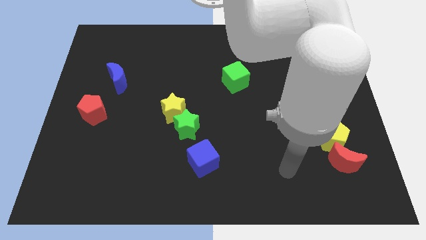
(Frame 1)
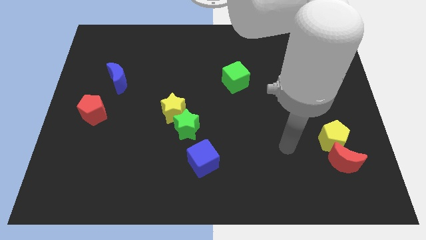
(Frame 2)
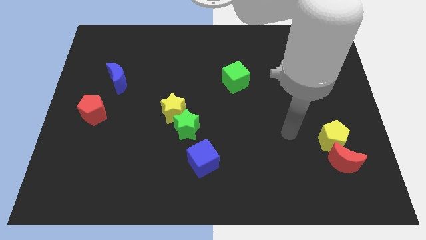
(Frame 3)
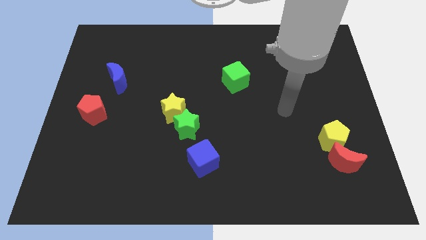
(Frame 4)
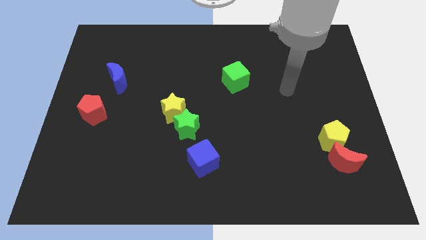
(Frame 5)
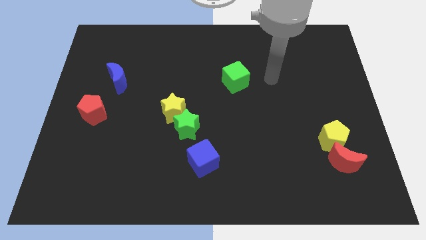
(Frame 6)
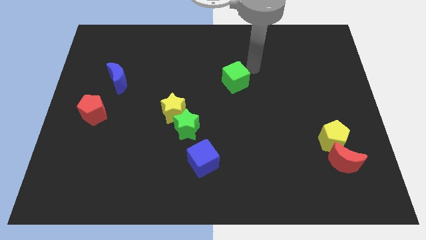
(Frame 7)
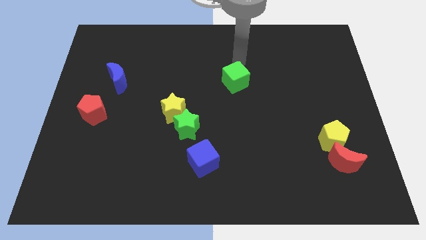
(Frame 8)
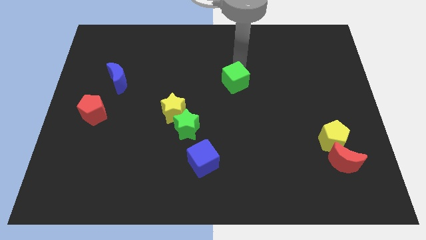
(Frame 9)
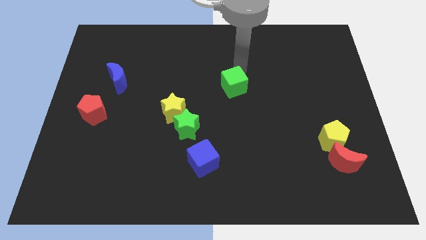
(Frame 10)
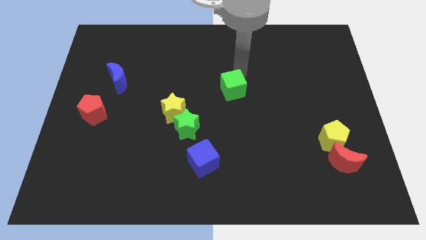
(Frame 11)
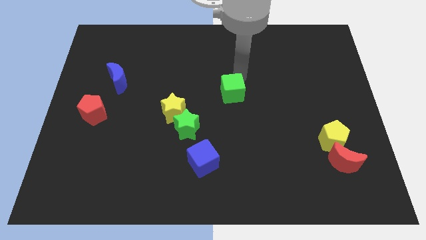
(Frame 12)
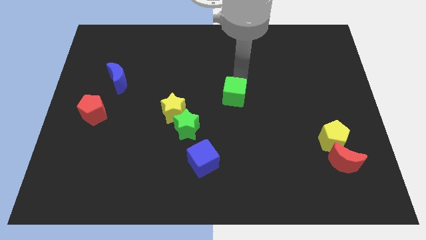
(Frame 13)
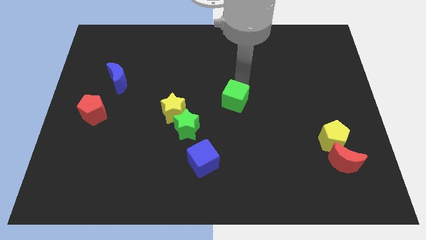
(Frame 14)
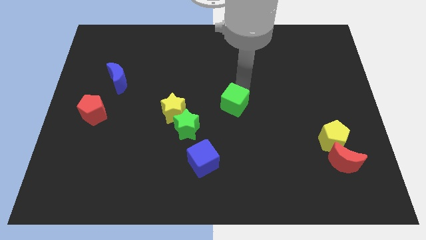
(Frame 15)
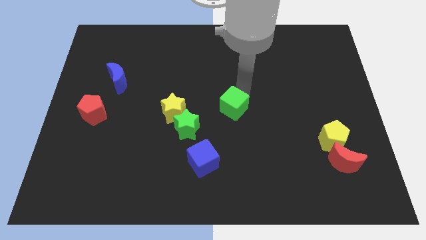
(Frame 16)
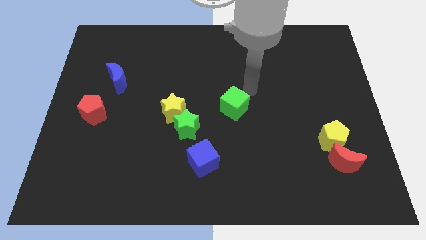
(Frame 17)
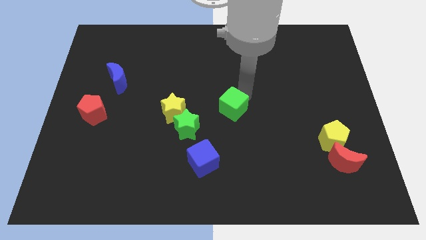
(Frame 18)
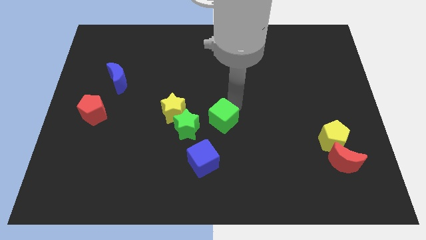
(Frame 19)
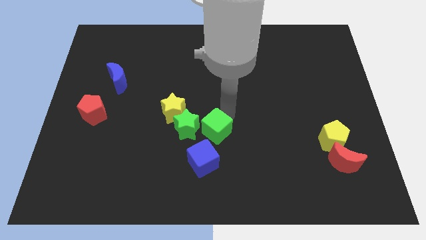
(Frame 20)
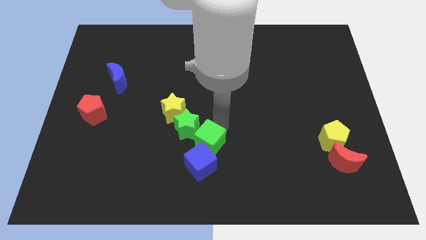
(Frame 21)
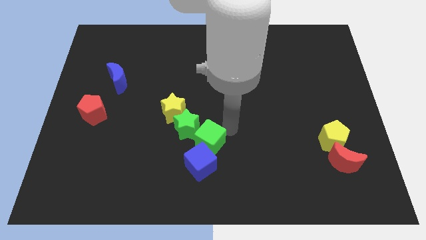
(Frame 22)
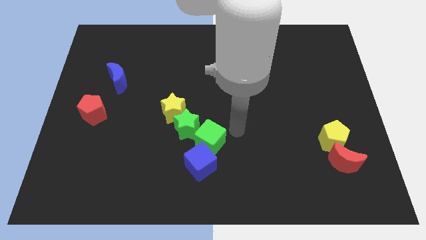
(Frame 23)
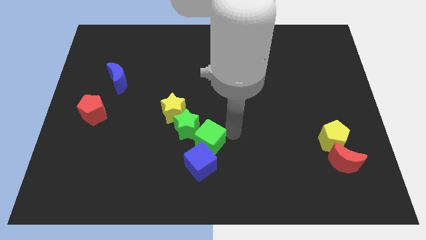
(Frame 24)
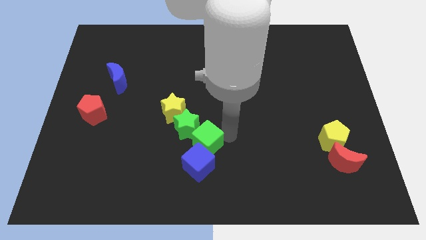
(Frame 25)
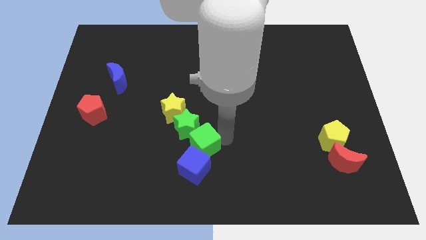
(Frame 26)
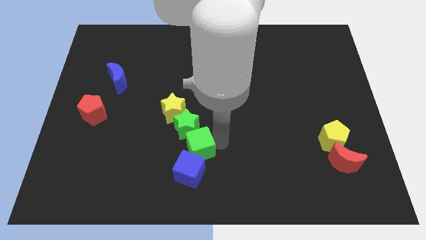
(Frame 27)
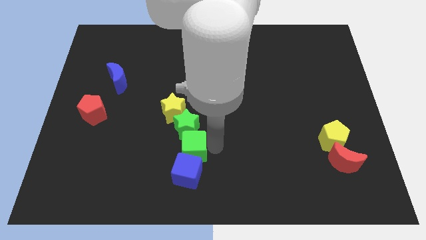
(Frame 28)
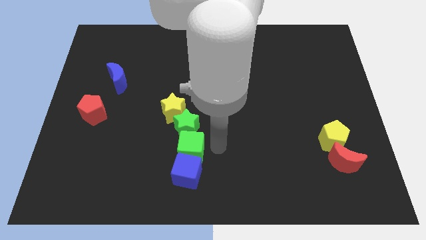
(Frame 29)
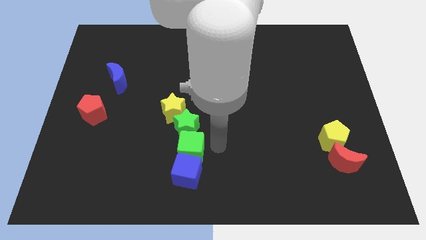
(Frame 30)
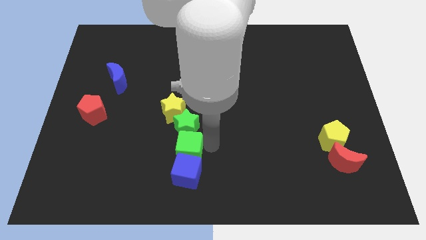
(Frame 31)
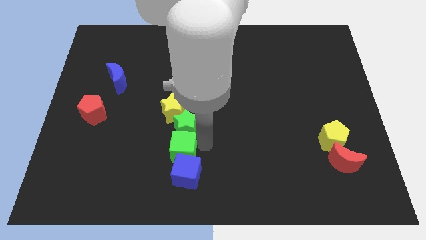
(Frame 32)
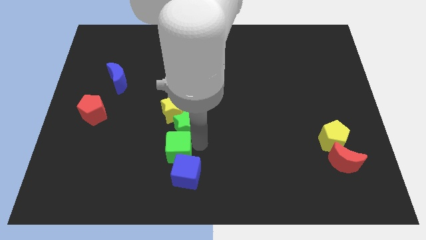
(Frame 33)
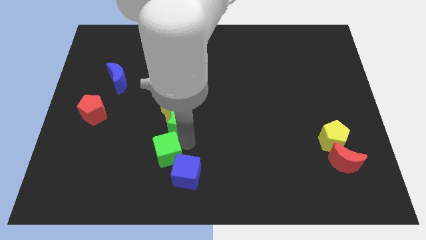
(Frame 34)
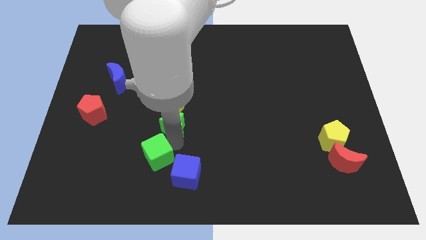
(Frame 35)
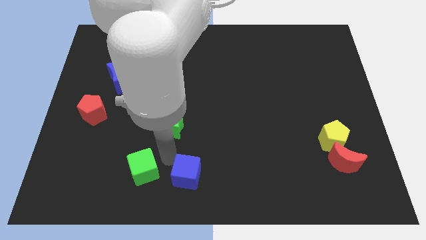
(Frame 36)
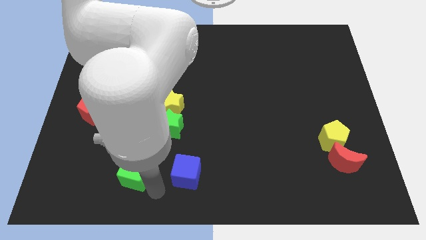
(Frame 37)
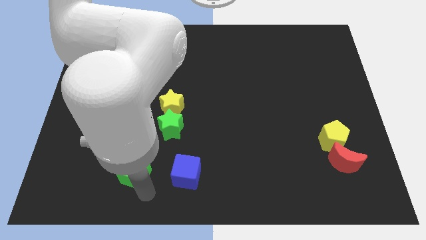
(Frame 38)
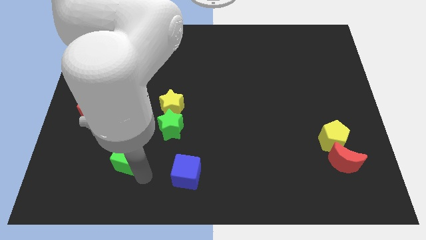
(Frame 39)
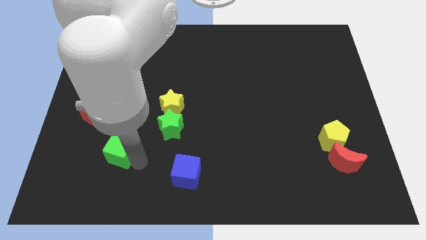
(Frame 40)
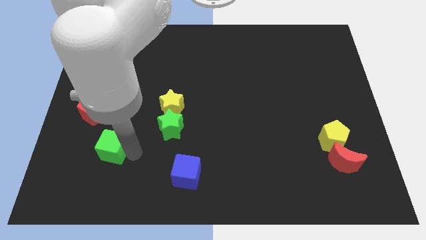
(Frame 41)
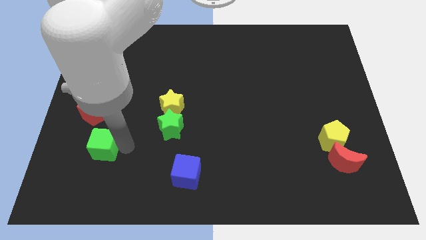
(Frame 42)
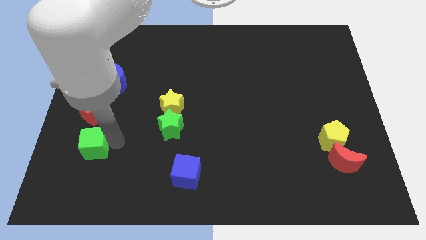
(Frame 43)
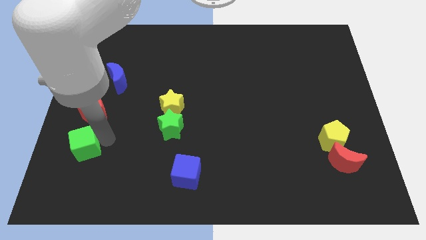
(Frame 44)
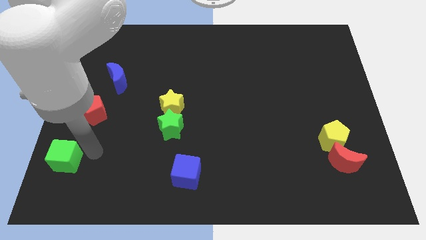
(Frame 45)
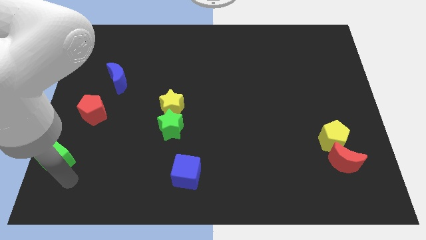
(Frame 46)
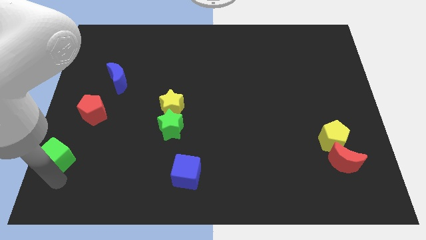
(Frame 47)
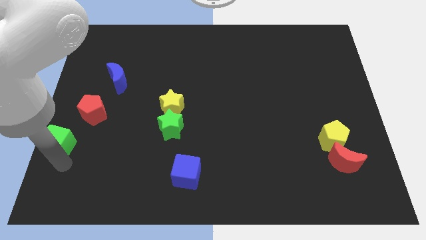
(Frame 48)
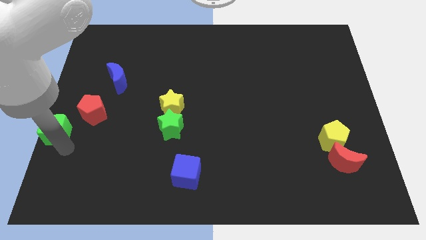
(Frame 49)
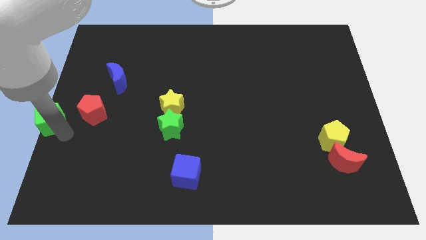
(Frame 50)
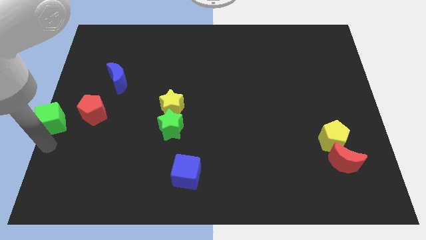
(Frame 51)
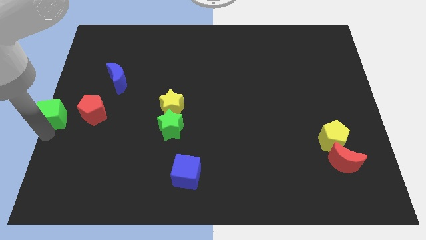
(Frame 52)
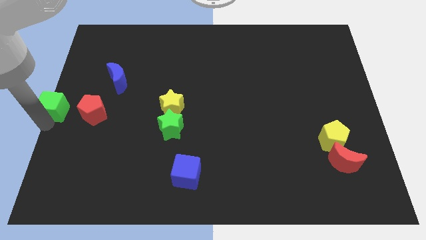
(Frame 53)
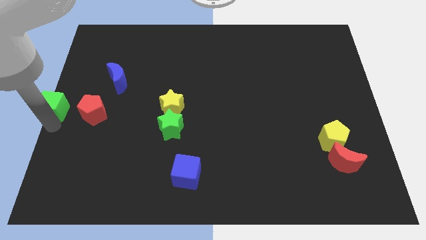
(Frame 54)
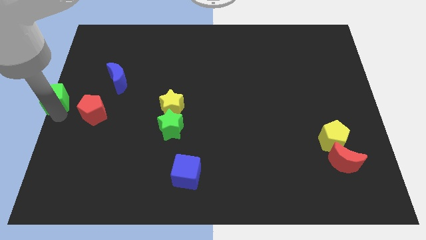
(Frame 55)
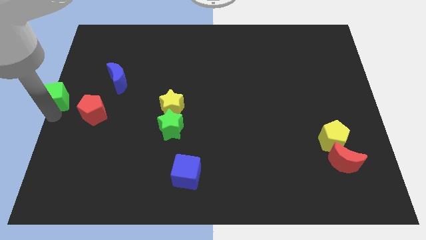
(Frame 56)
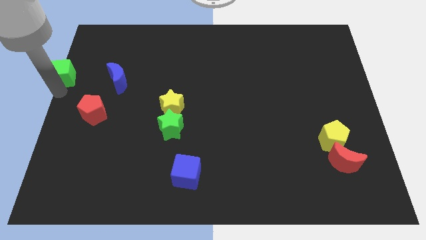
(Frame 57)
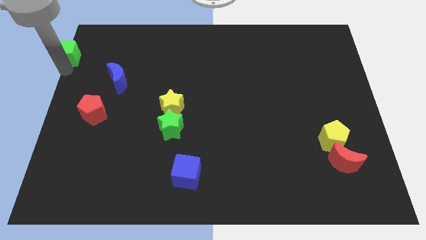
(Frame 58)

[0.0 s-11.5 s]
put the green cube to the top left of the board
